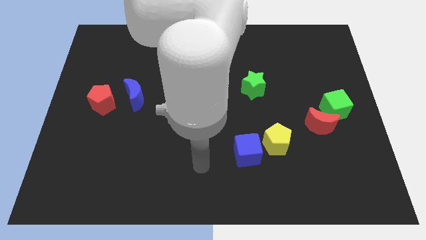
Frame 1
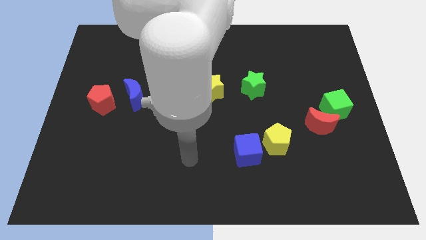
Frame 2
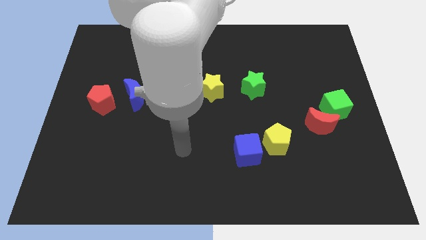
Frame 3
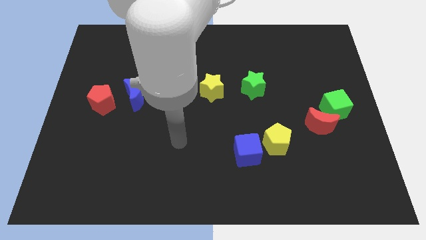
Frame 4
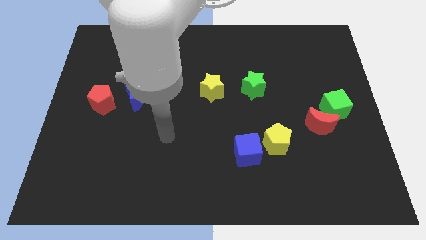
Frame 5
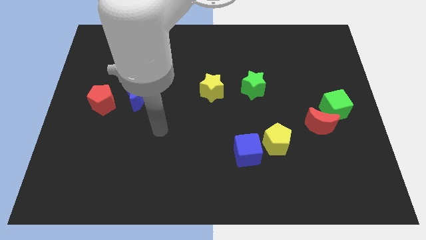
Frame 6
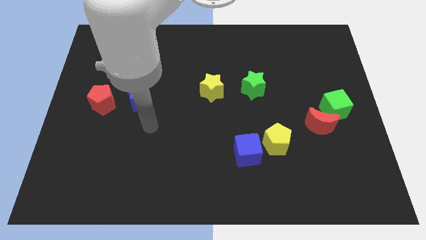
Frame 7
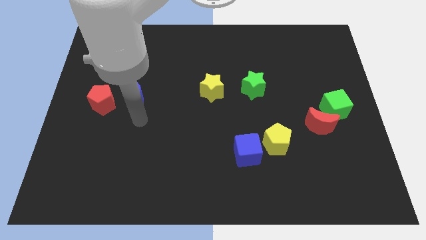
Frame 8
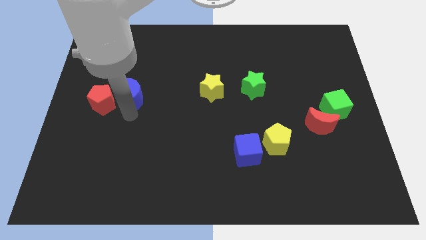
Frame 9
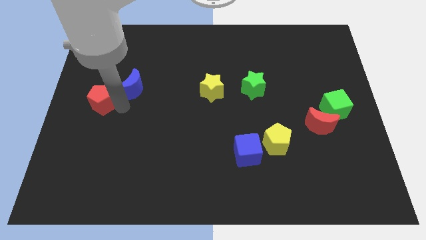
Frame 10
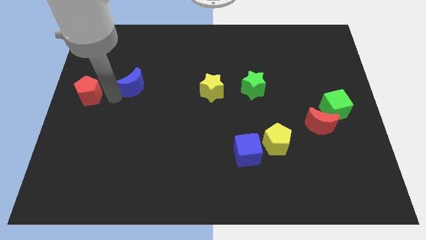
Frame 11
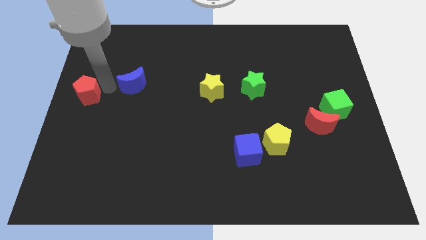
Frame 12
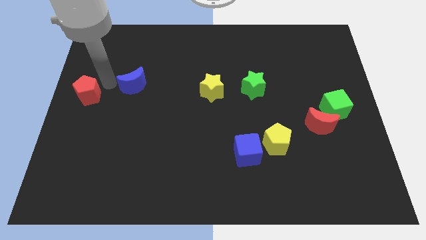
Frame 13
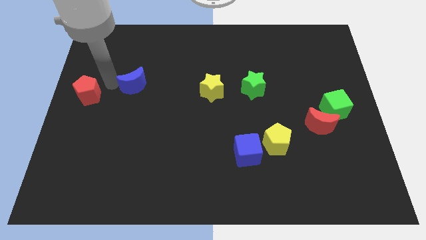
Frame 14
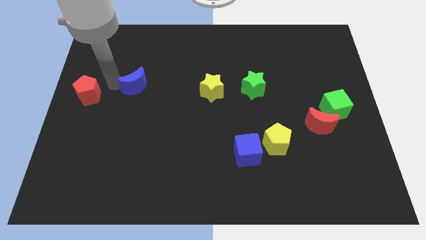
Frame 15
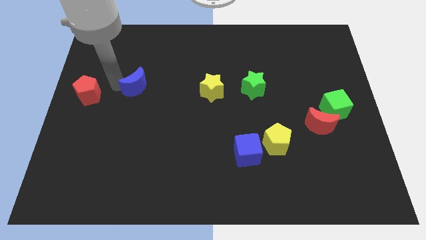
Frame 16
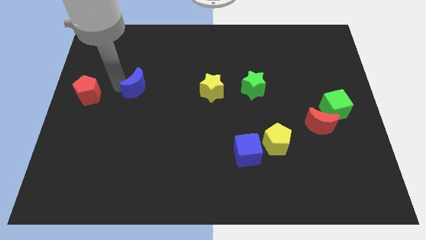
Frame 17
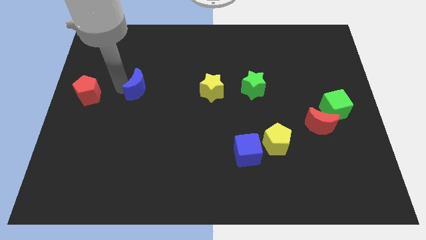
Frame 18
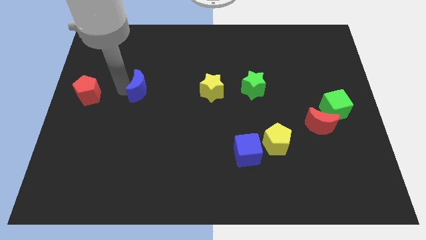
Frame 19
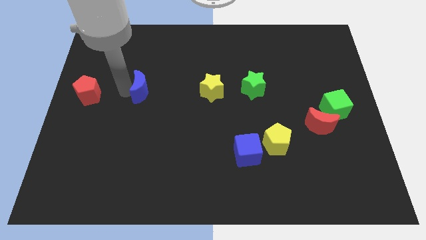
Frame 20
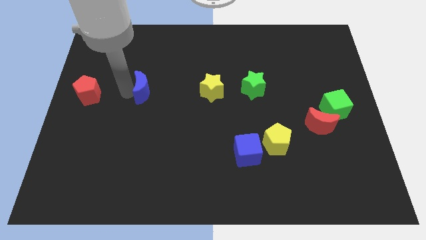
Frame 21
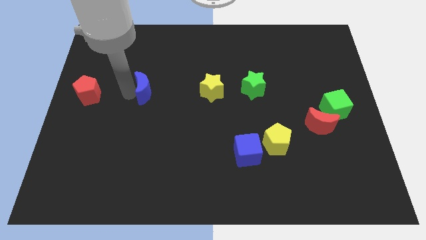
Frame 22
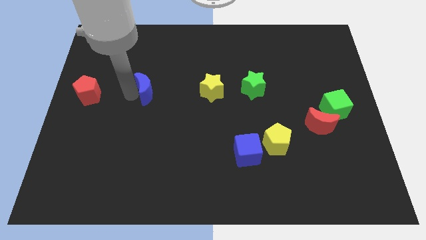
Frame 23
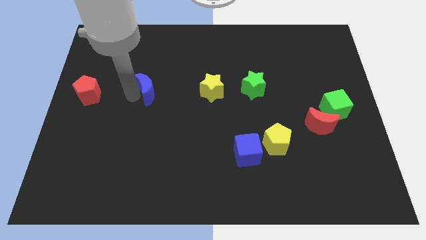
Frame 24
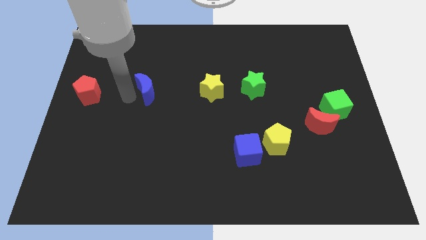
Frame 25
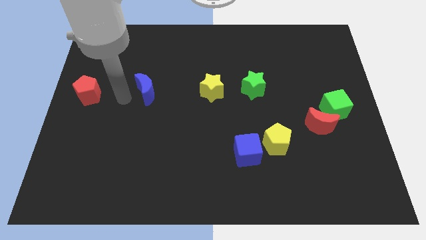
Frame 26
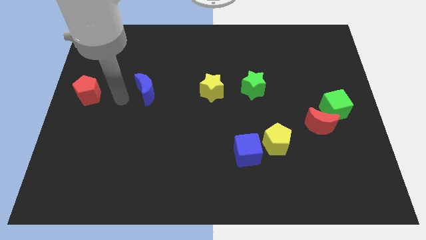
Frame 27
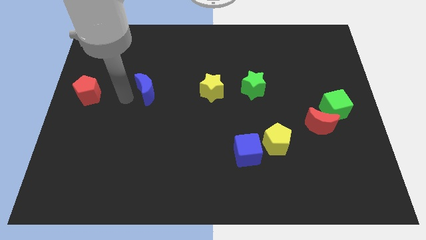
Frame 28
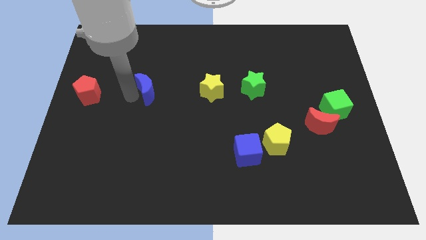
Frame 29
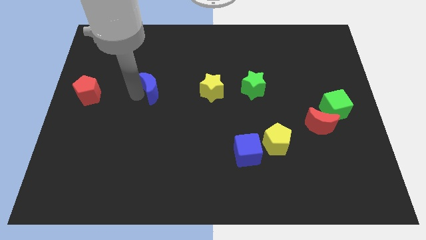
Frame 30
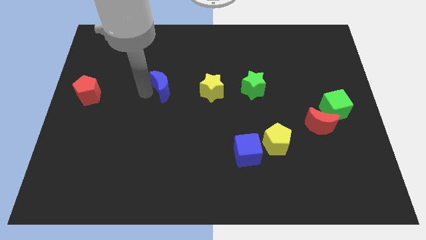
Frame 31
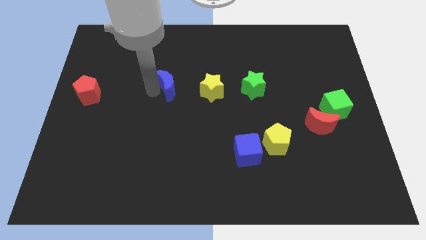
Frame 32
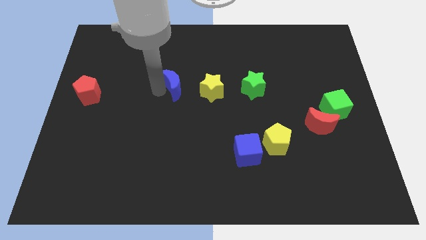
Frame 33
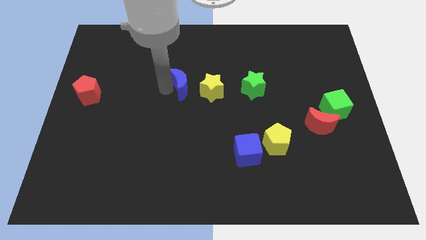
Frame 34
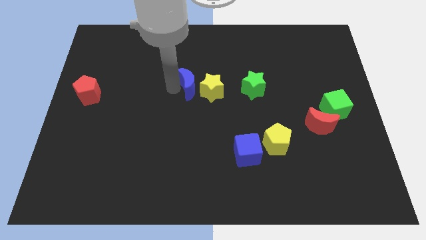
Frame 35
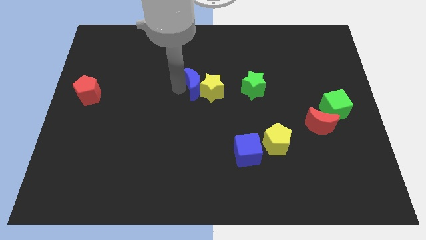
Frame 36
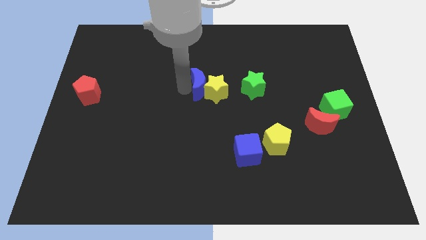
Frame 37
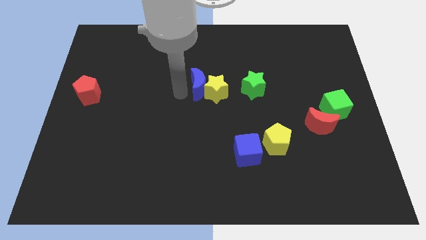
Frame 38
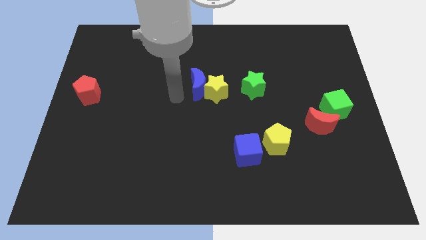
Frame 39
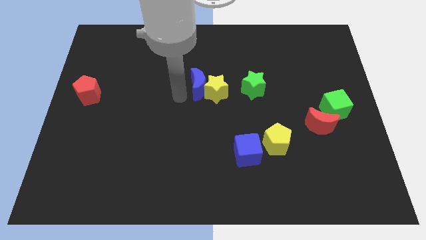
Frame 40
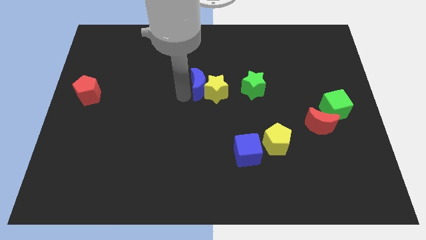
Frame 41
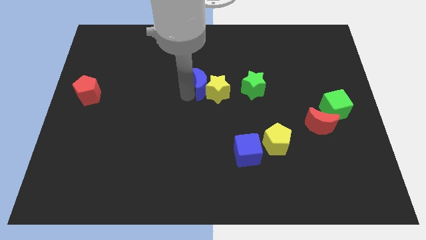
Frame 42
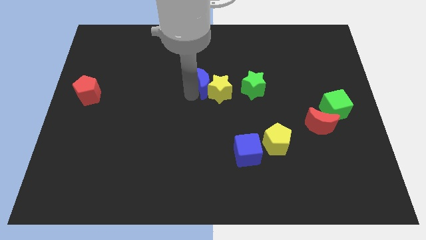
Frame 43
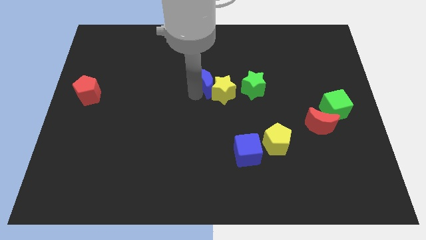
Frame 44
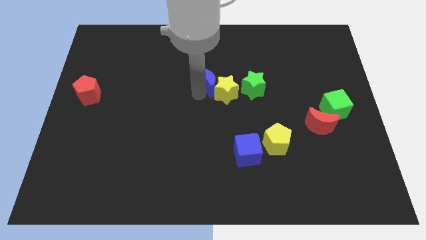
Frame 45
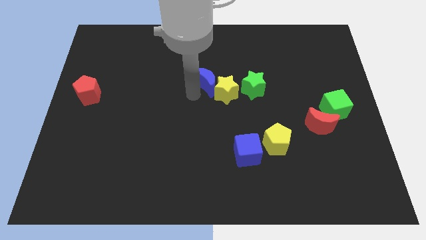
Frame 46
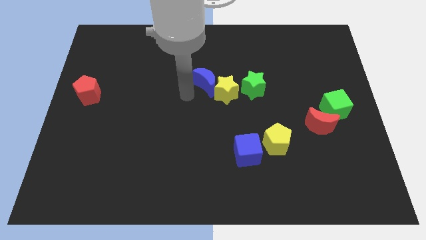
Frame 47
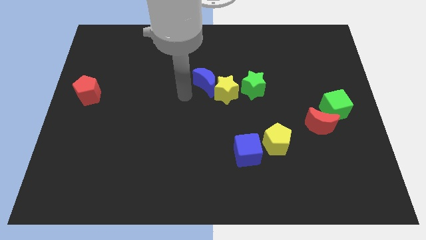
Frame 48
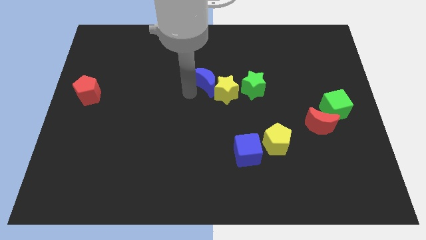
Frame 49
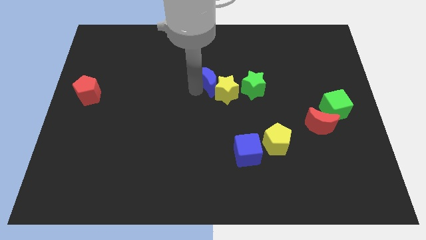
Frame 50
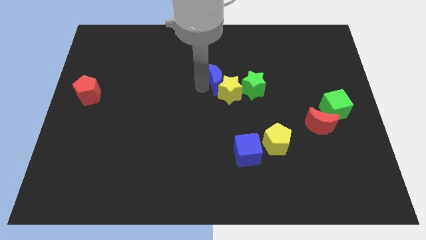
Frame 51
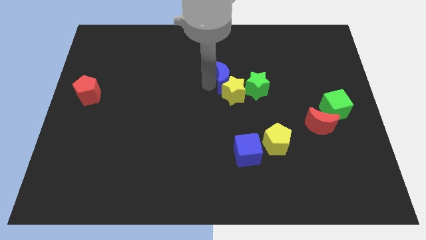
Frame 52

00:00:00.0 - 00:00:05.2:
push the blue moon to the top left of the green star

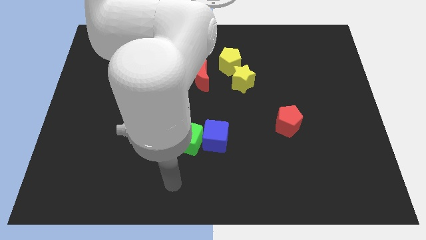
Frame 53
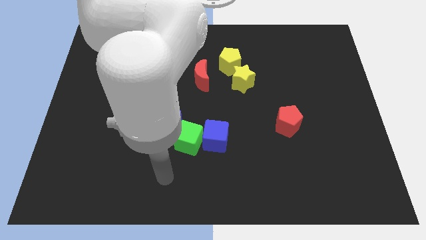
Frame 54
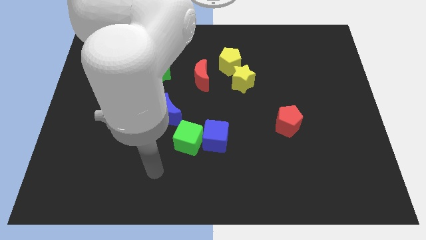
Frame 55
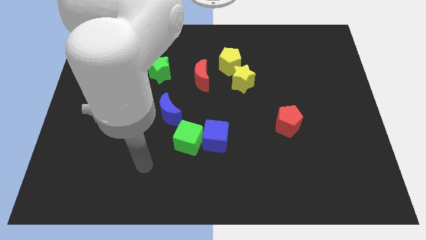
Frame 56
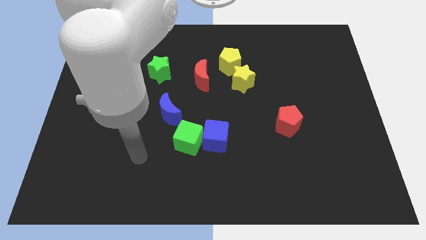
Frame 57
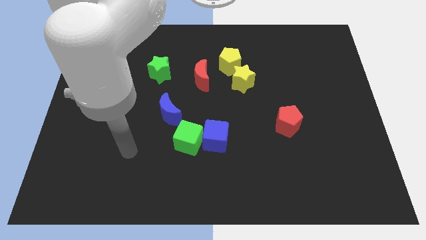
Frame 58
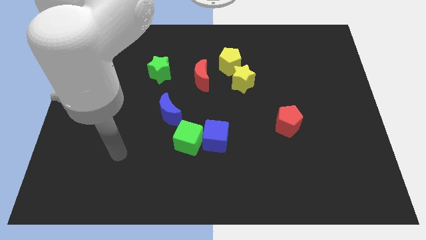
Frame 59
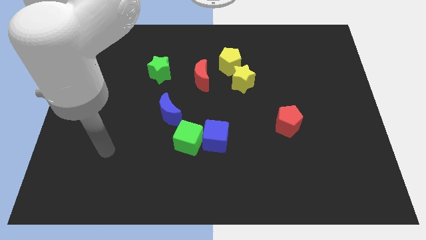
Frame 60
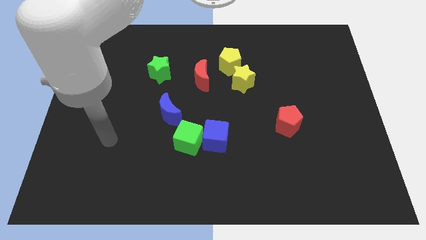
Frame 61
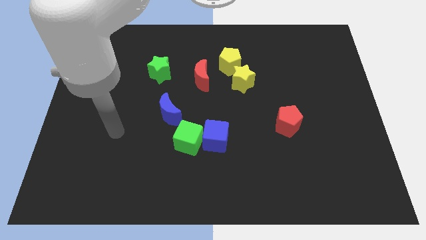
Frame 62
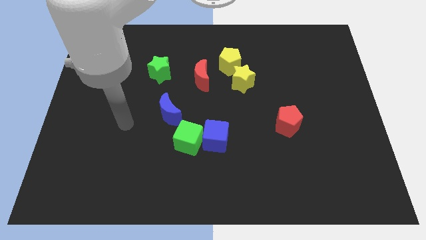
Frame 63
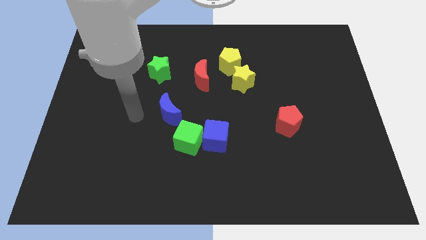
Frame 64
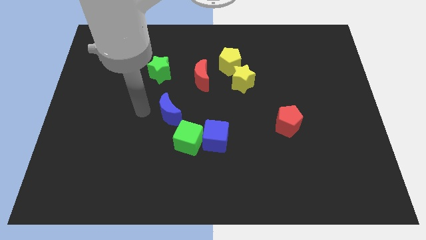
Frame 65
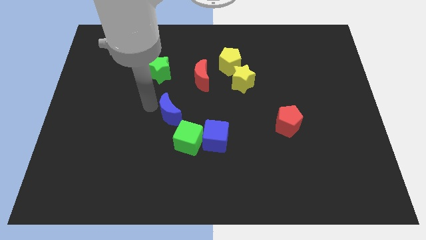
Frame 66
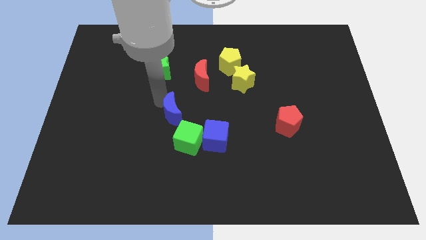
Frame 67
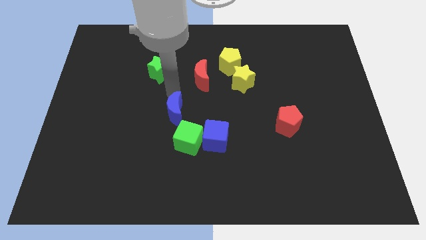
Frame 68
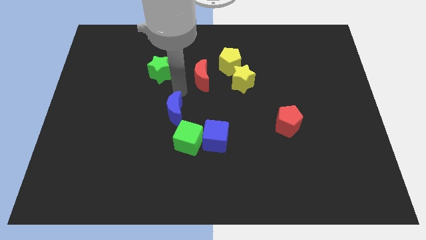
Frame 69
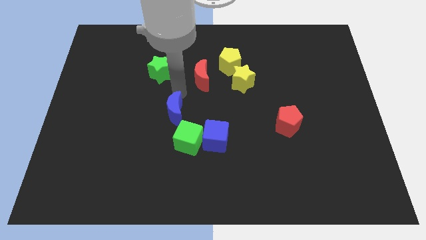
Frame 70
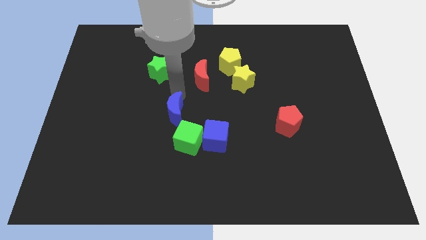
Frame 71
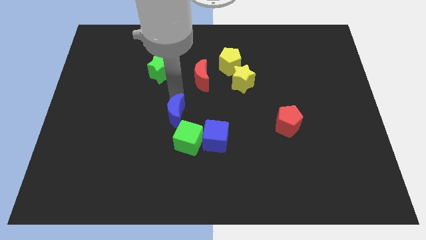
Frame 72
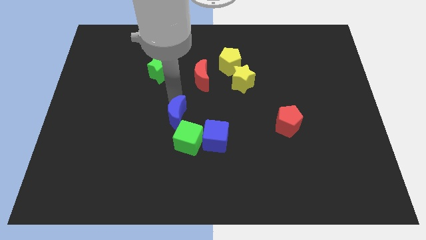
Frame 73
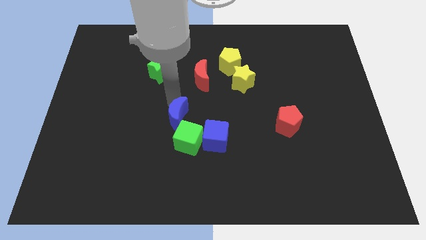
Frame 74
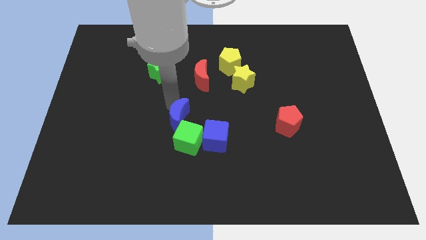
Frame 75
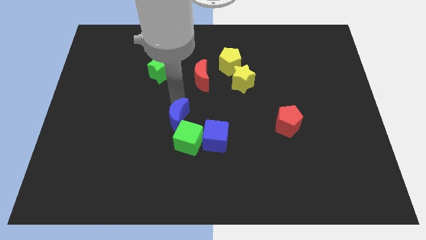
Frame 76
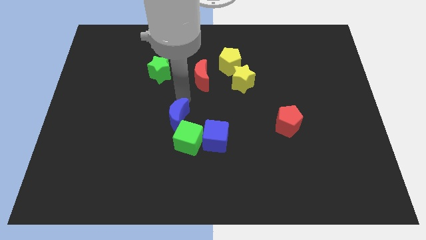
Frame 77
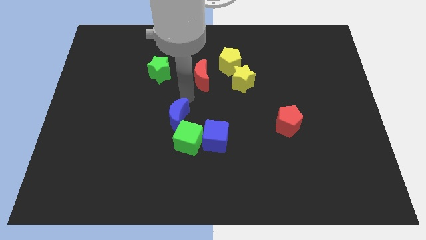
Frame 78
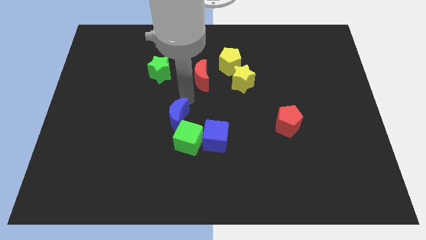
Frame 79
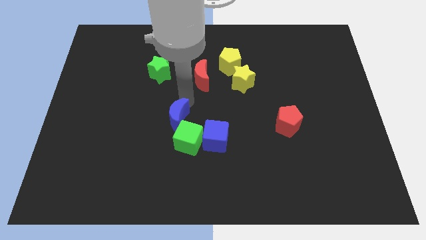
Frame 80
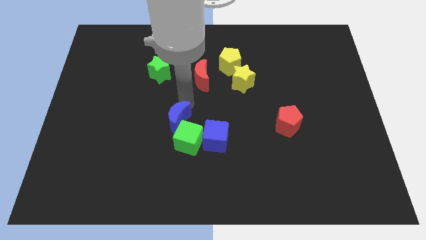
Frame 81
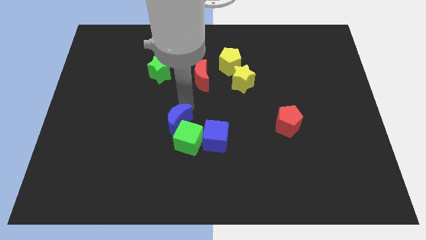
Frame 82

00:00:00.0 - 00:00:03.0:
push the blue moon to the left side of the blue cube
